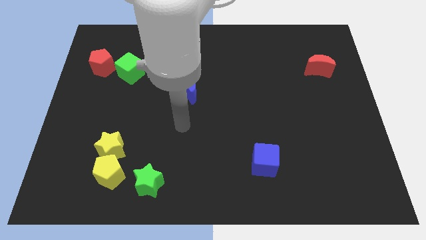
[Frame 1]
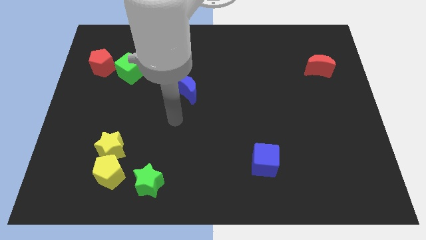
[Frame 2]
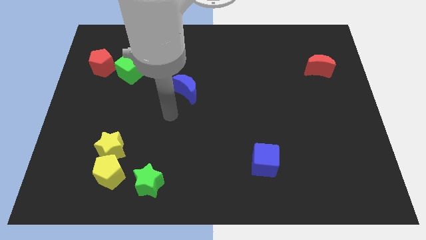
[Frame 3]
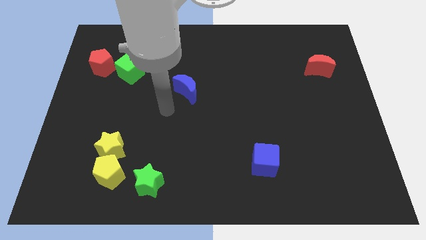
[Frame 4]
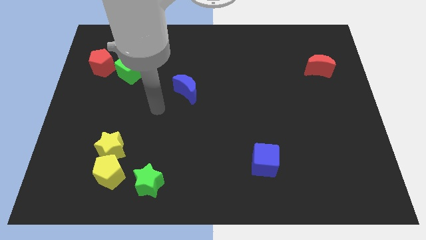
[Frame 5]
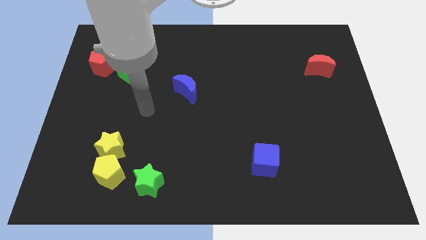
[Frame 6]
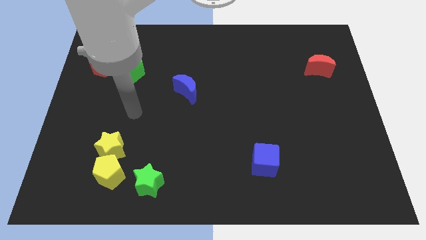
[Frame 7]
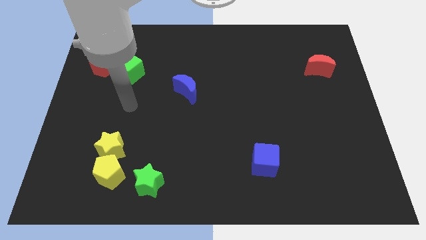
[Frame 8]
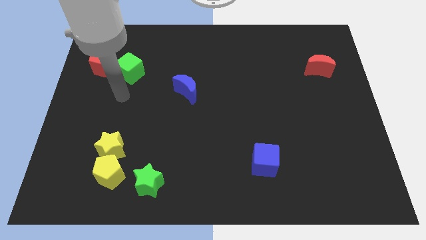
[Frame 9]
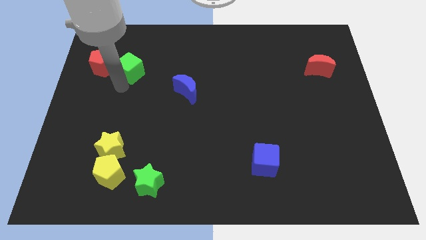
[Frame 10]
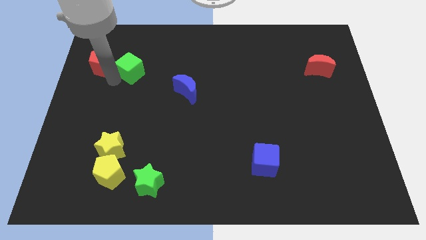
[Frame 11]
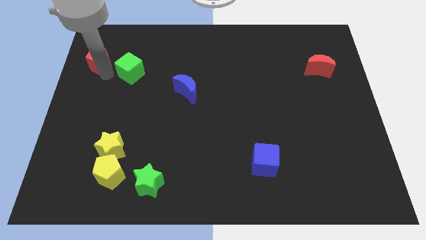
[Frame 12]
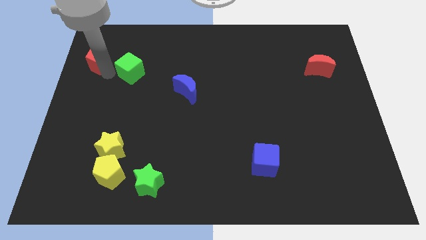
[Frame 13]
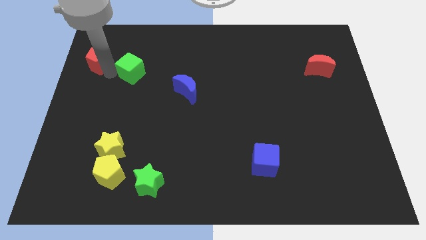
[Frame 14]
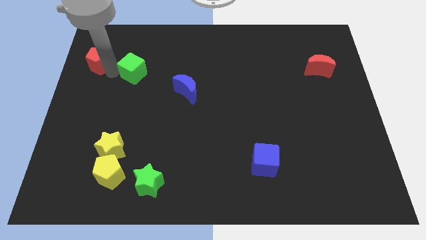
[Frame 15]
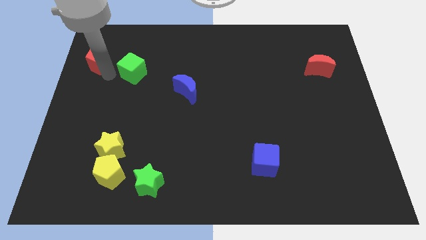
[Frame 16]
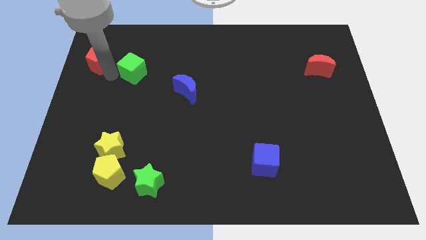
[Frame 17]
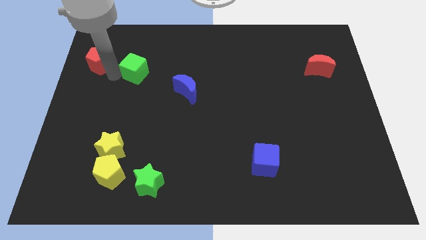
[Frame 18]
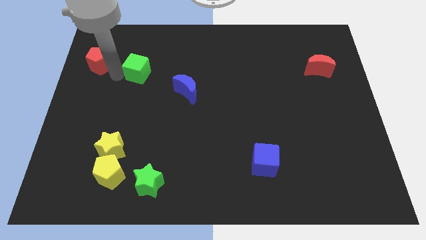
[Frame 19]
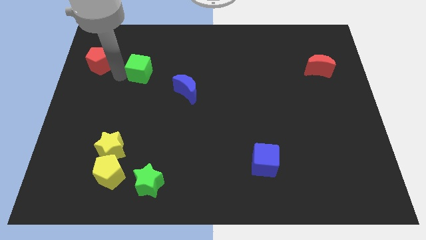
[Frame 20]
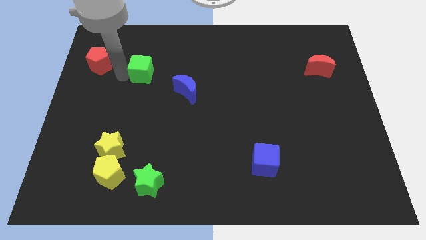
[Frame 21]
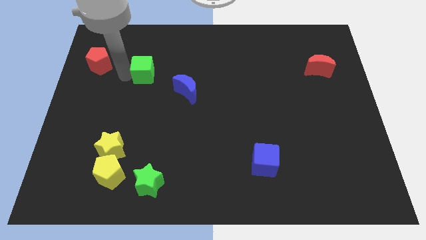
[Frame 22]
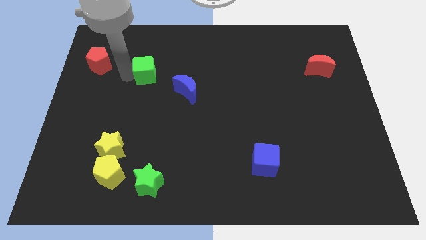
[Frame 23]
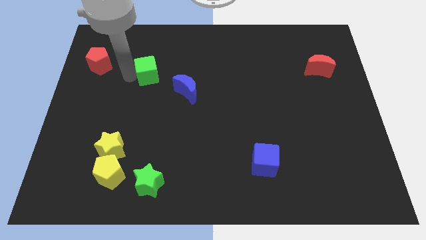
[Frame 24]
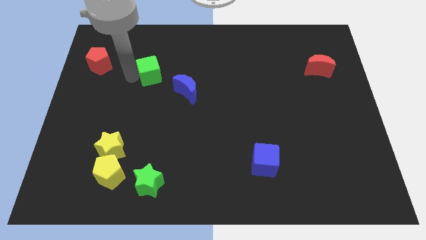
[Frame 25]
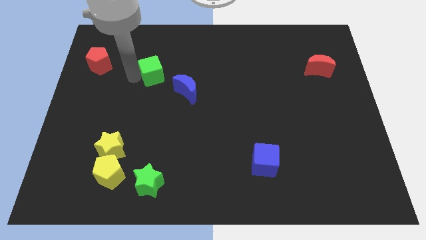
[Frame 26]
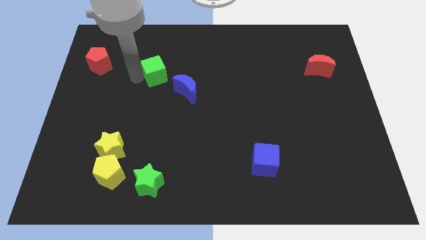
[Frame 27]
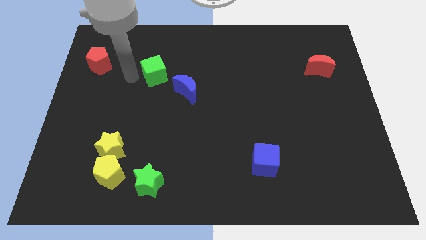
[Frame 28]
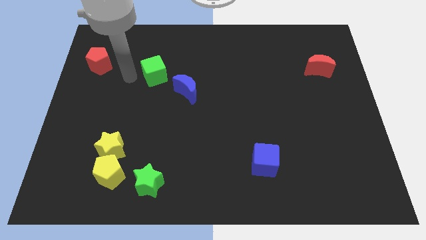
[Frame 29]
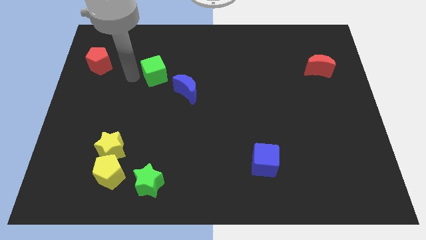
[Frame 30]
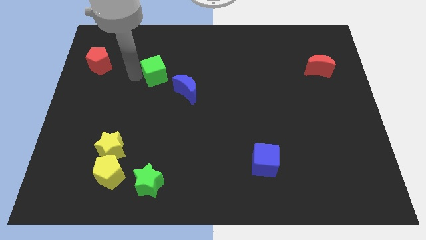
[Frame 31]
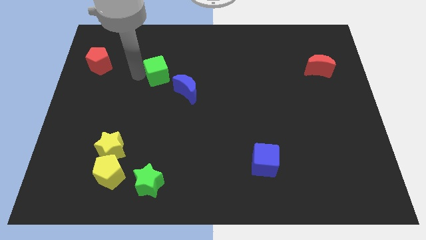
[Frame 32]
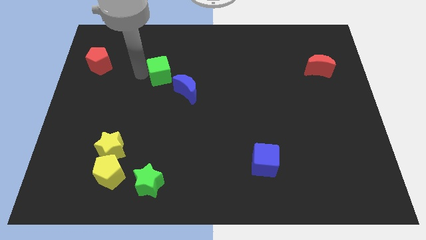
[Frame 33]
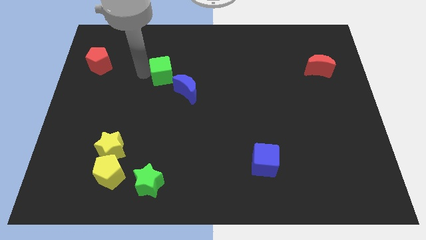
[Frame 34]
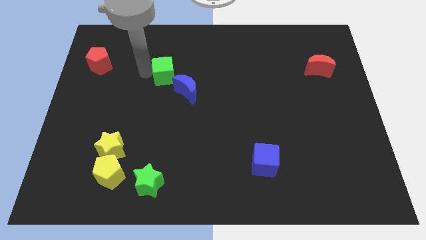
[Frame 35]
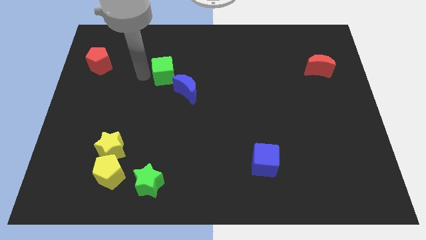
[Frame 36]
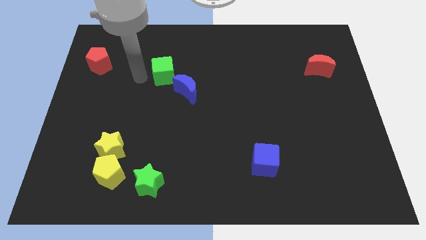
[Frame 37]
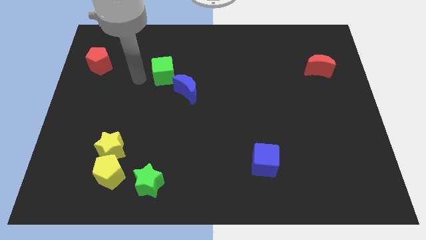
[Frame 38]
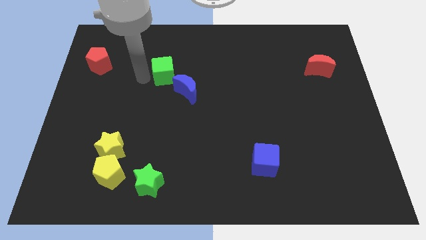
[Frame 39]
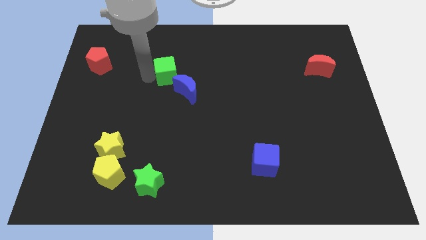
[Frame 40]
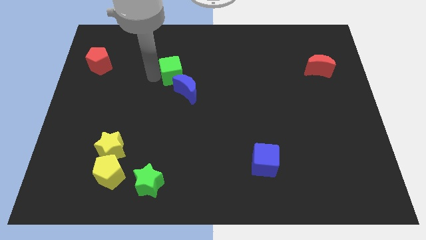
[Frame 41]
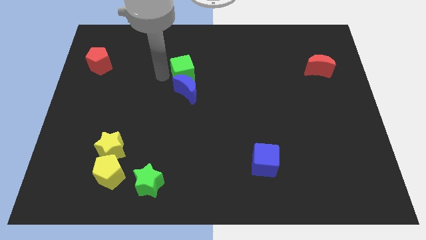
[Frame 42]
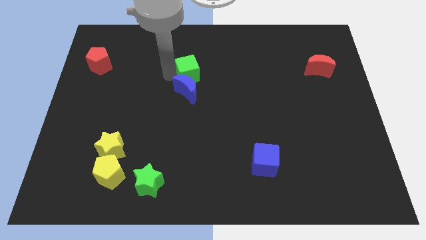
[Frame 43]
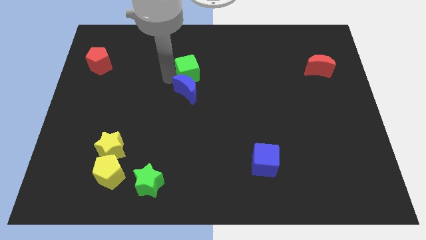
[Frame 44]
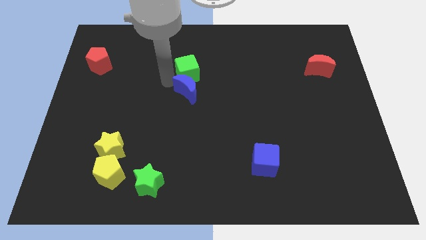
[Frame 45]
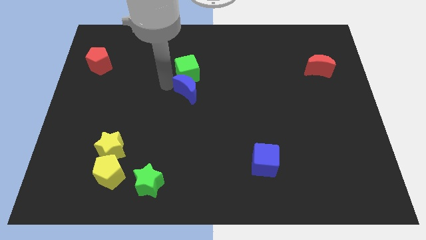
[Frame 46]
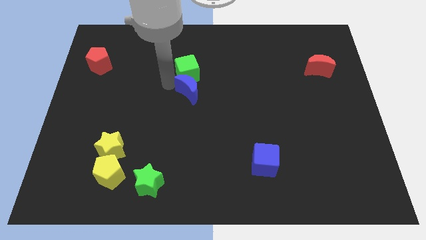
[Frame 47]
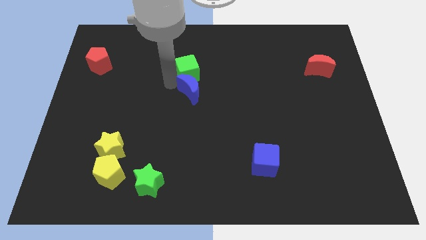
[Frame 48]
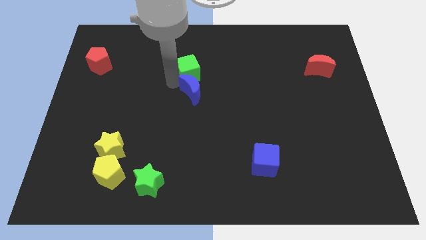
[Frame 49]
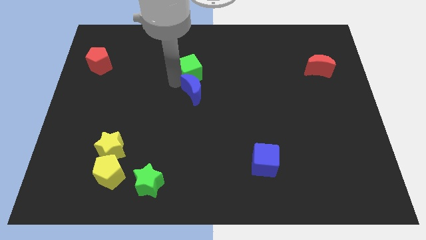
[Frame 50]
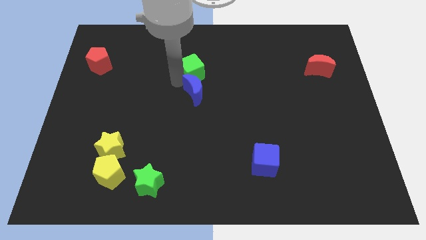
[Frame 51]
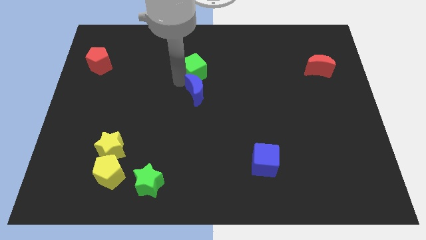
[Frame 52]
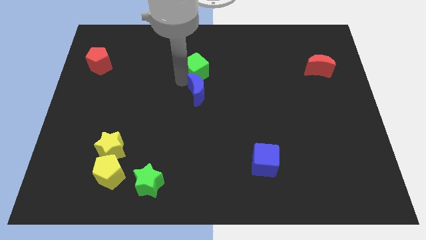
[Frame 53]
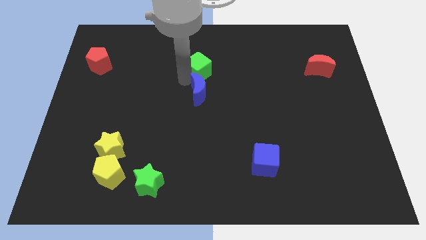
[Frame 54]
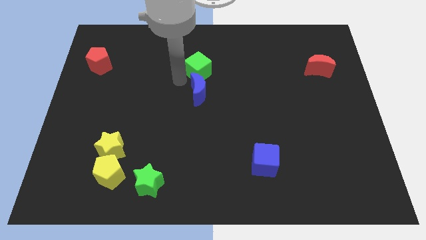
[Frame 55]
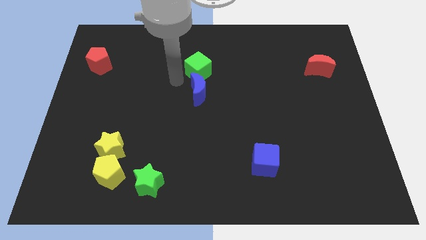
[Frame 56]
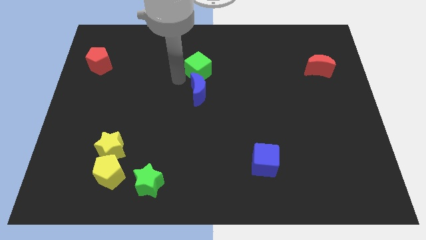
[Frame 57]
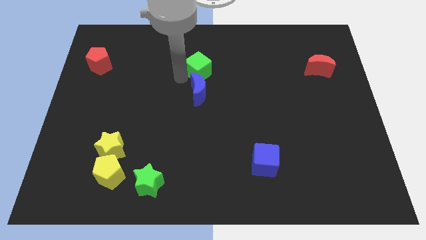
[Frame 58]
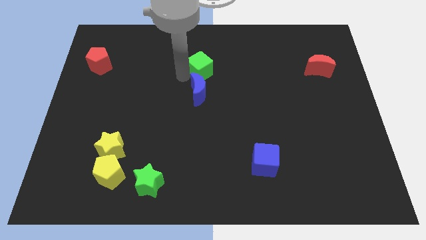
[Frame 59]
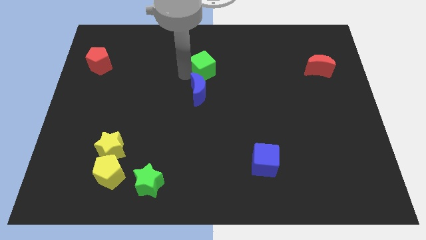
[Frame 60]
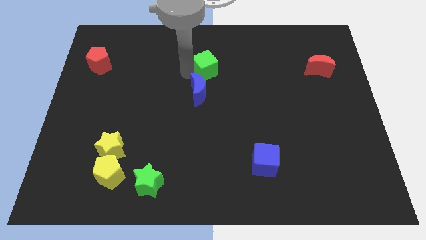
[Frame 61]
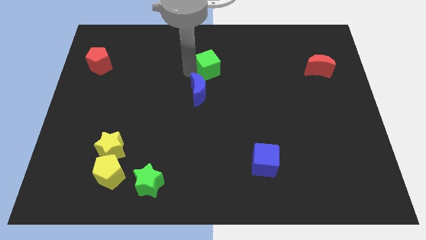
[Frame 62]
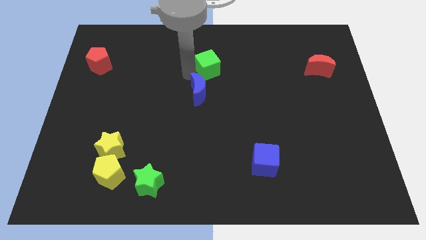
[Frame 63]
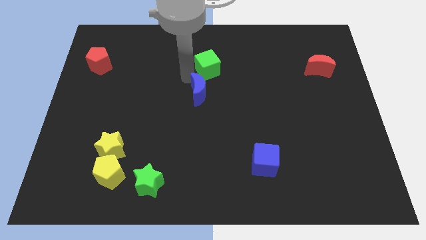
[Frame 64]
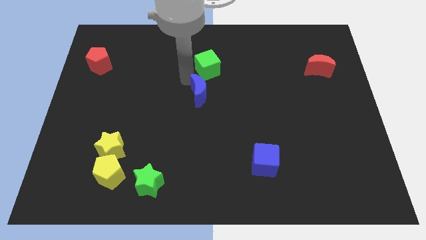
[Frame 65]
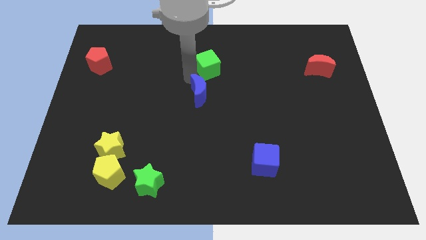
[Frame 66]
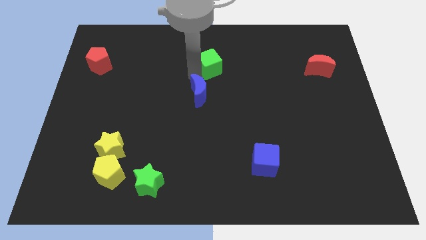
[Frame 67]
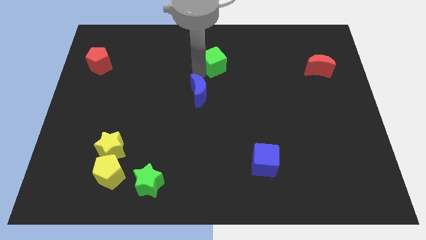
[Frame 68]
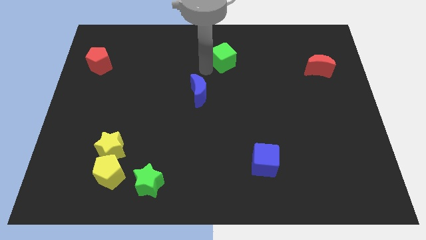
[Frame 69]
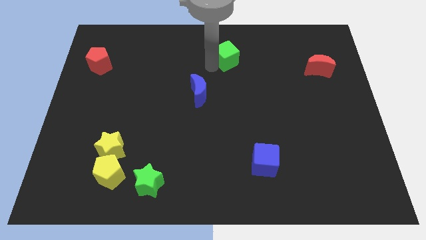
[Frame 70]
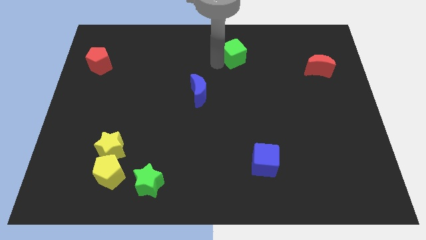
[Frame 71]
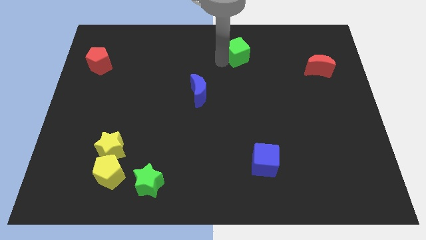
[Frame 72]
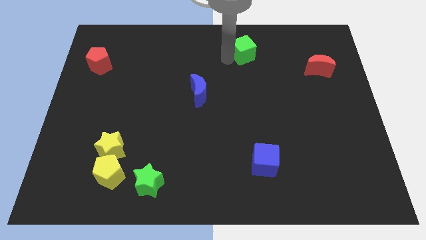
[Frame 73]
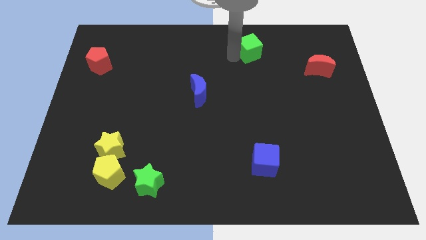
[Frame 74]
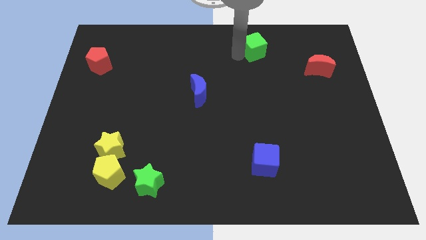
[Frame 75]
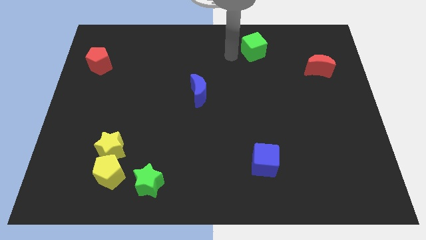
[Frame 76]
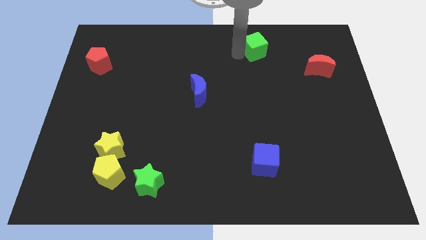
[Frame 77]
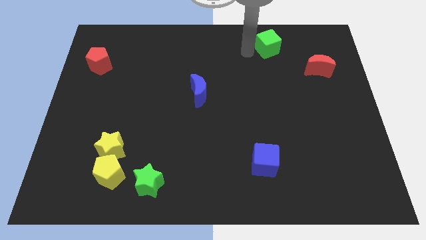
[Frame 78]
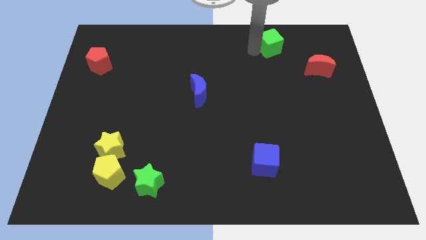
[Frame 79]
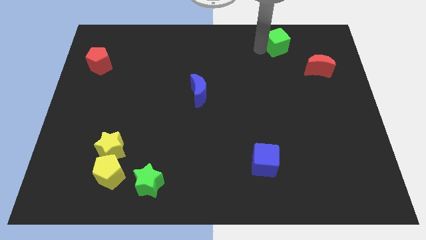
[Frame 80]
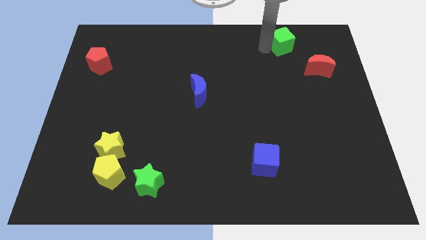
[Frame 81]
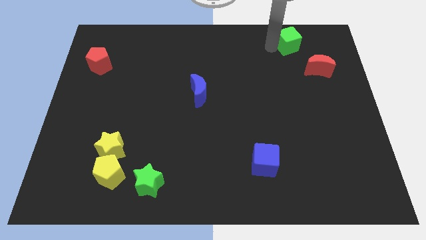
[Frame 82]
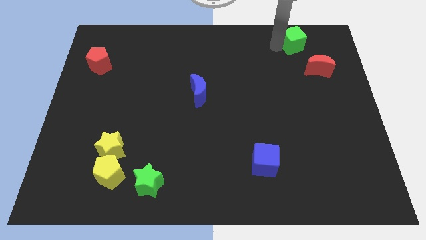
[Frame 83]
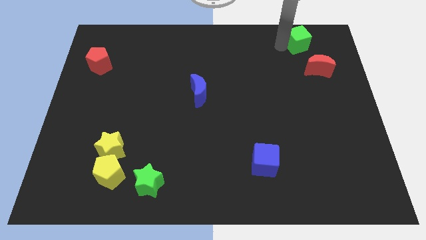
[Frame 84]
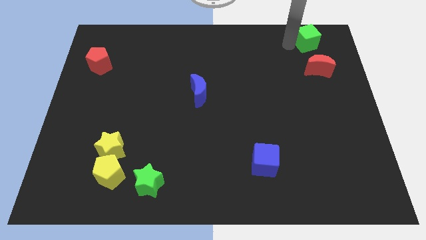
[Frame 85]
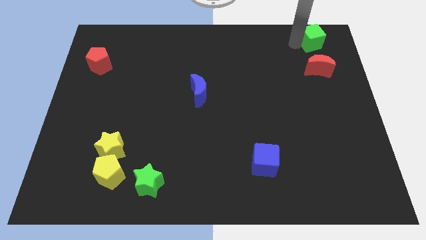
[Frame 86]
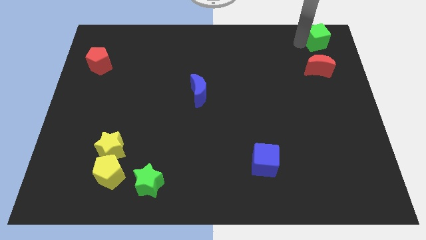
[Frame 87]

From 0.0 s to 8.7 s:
move the green cube to the top right corner
